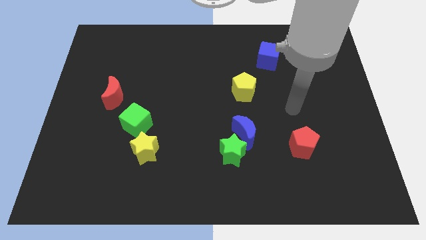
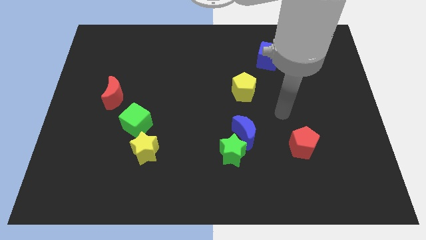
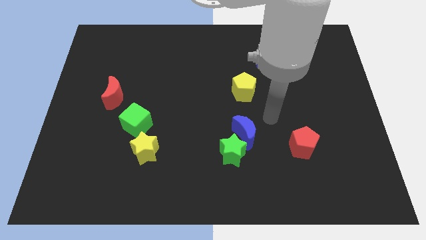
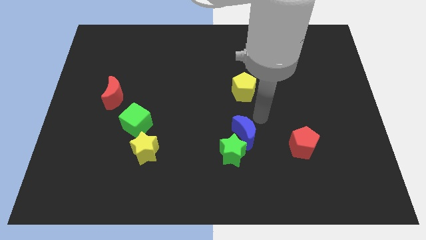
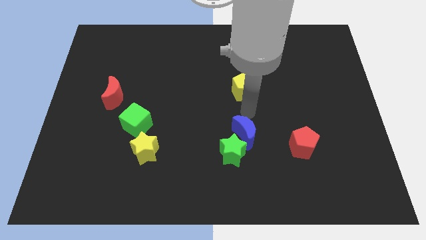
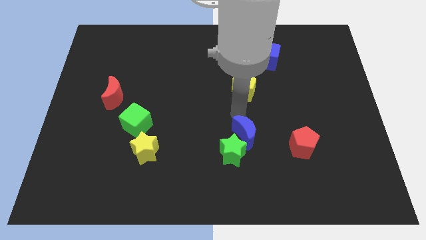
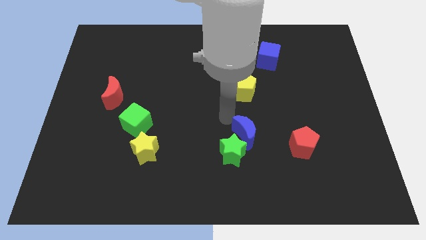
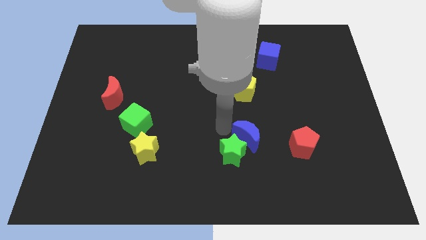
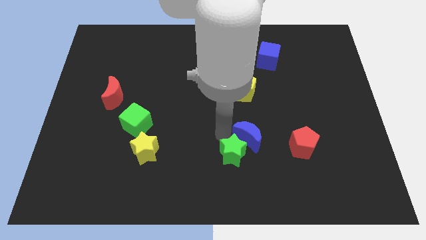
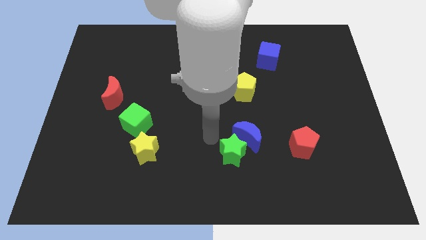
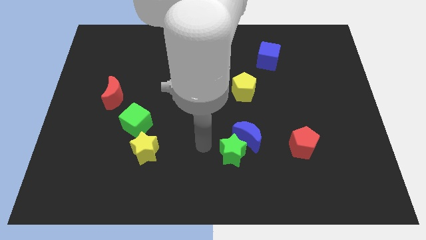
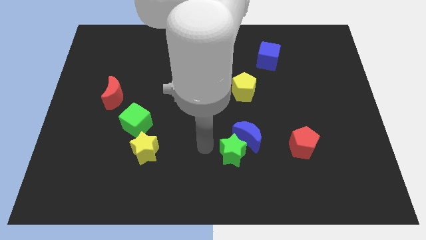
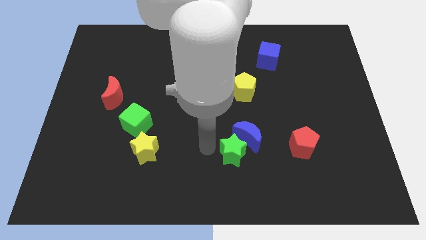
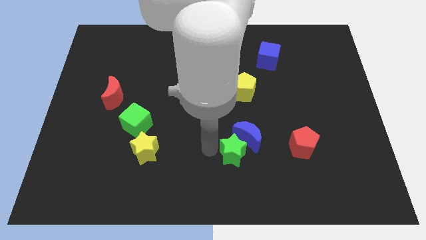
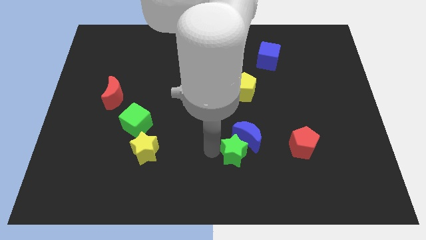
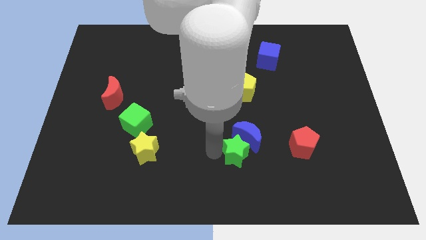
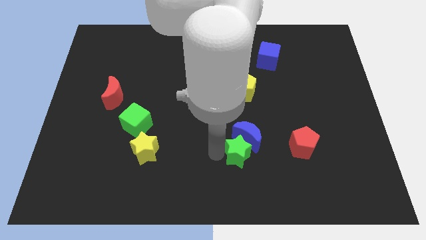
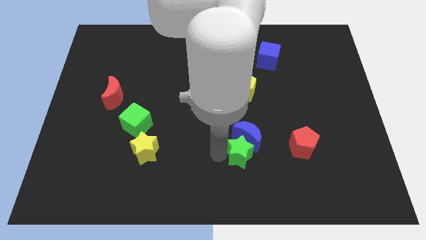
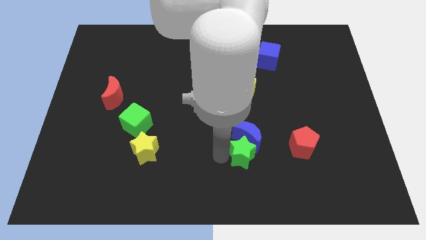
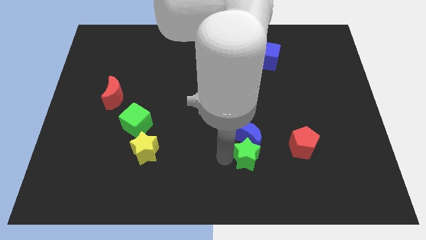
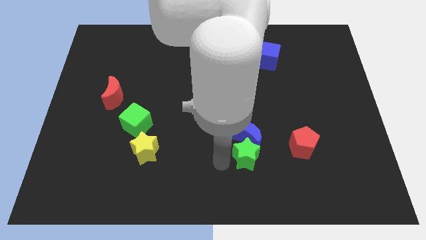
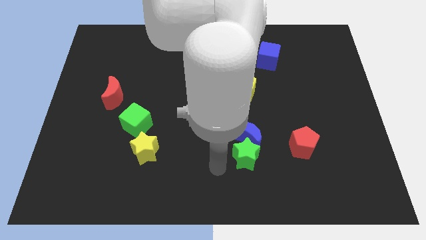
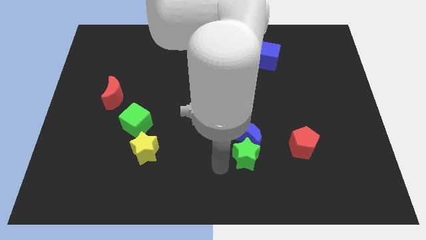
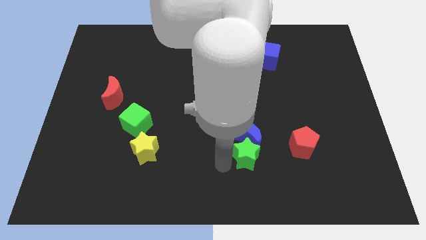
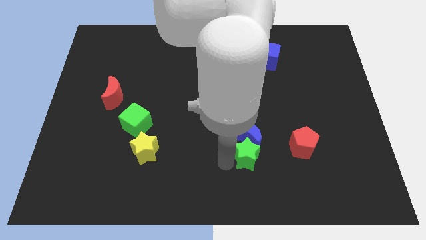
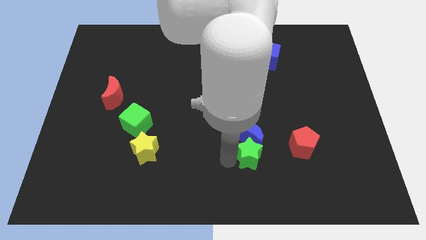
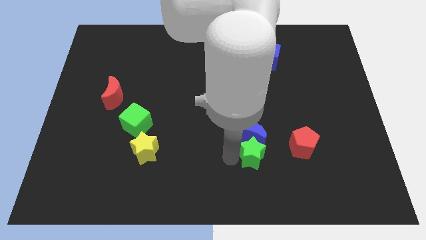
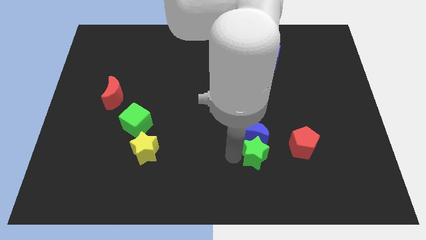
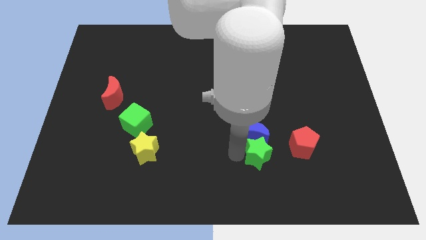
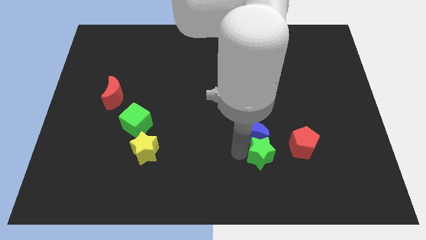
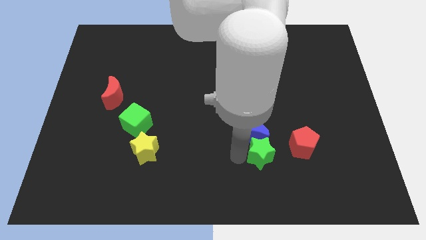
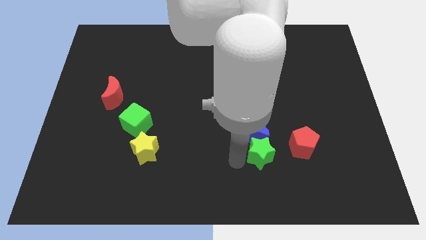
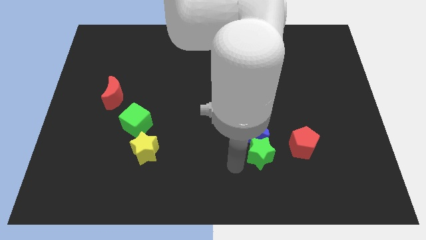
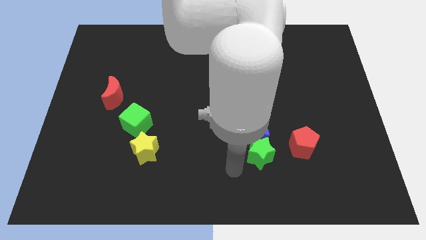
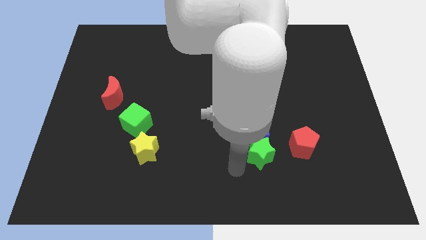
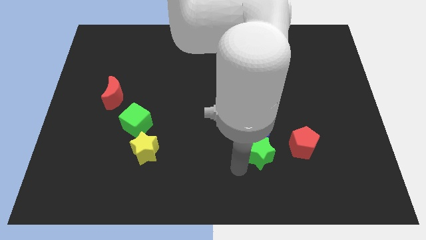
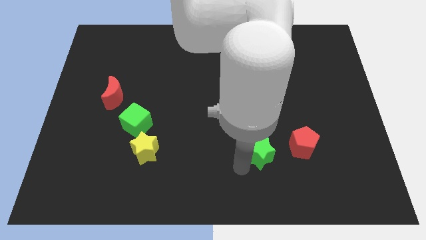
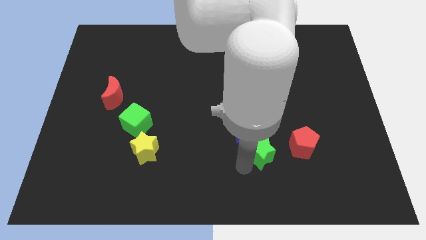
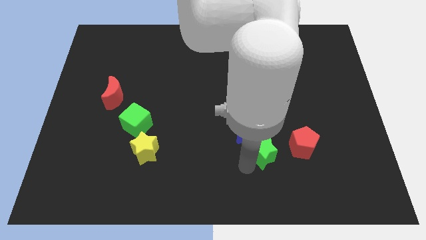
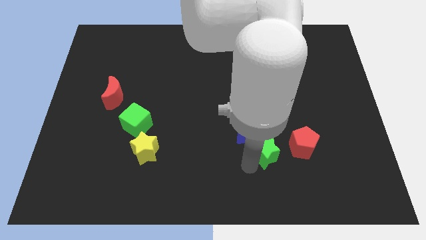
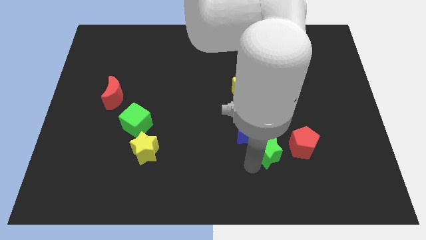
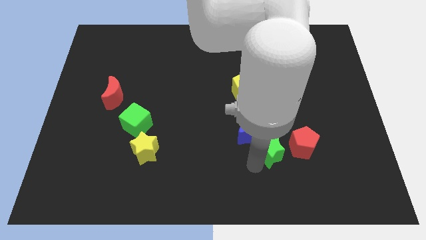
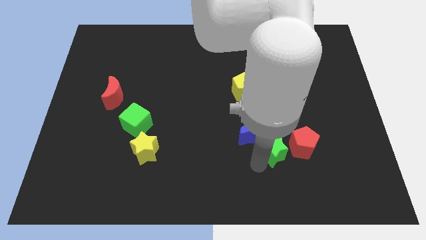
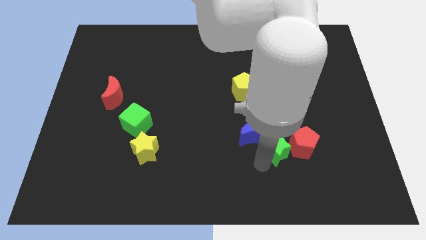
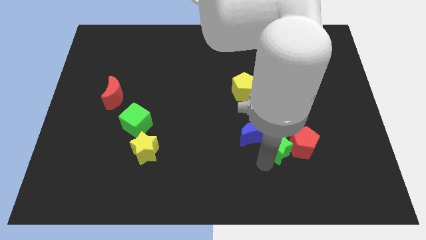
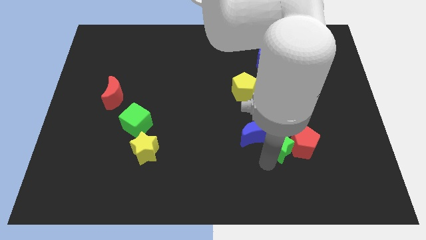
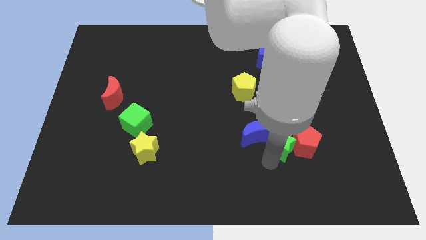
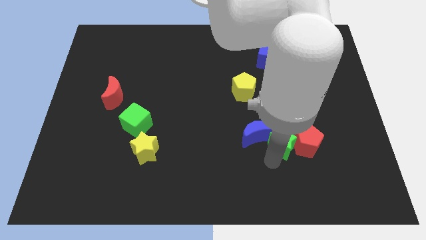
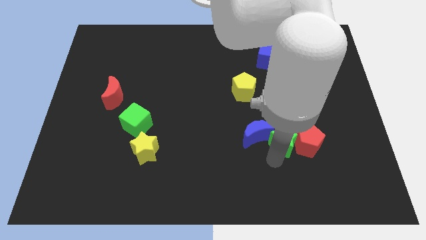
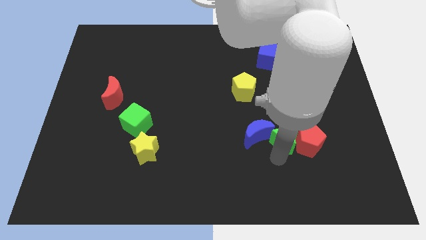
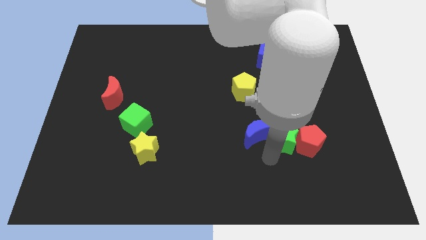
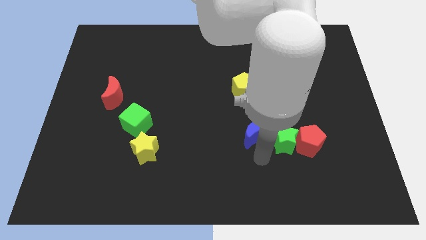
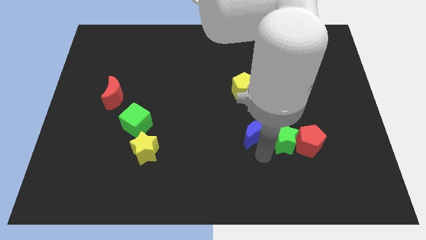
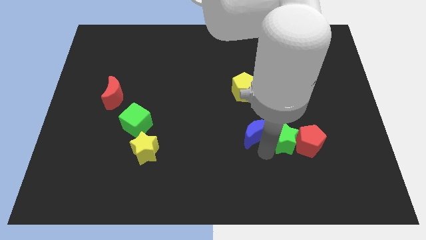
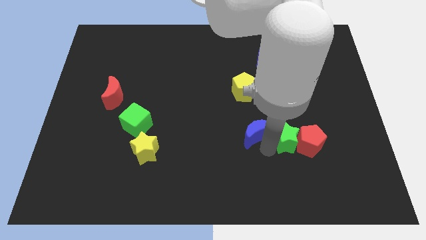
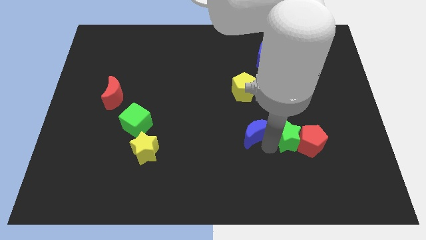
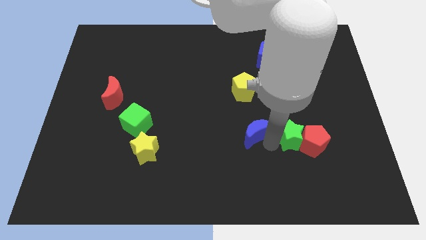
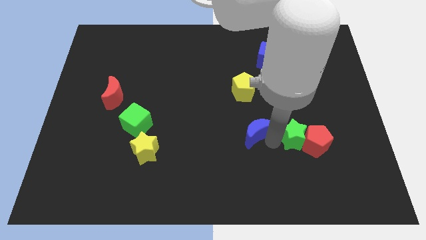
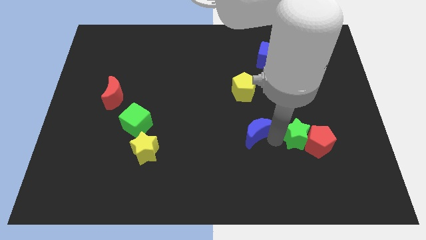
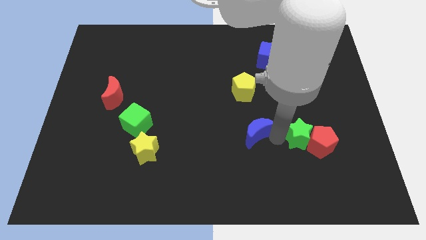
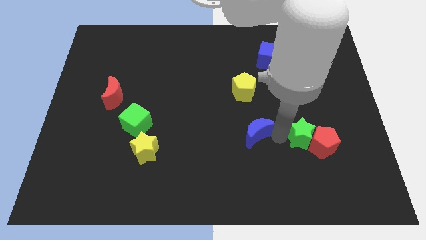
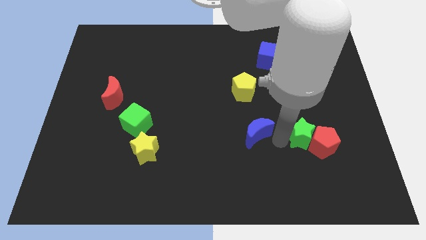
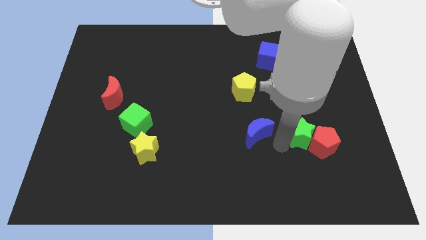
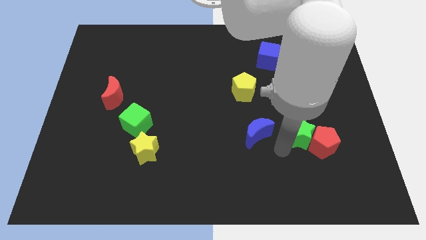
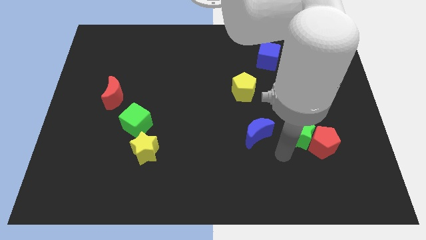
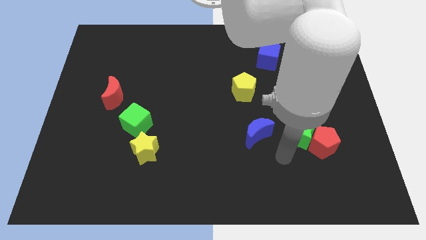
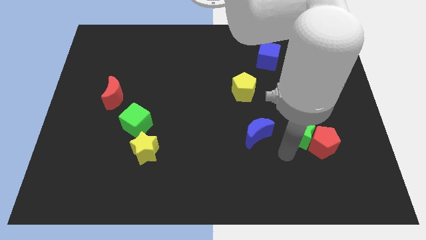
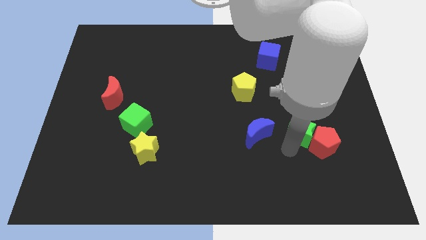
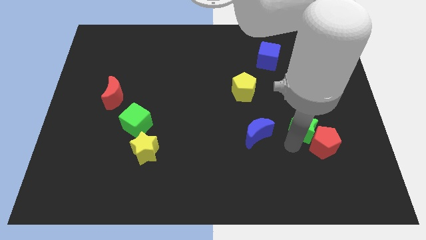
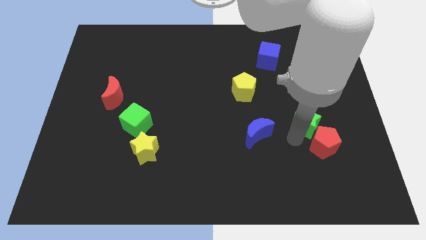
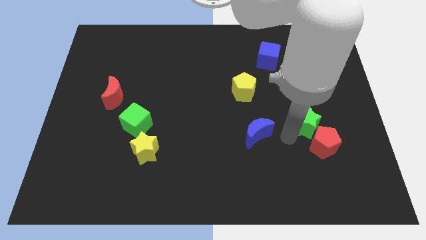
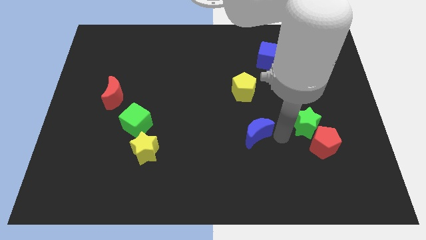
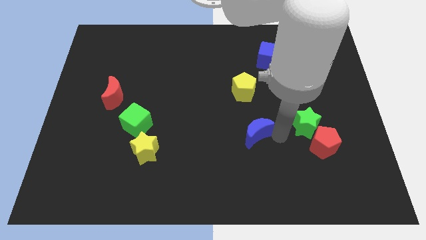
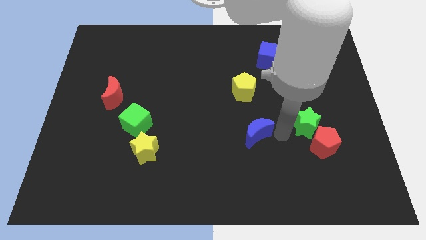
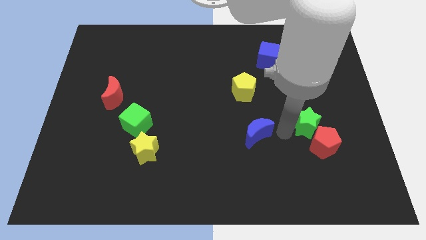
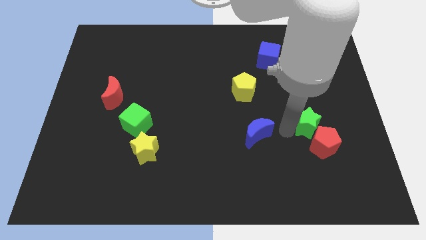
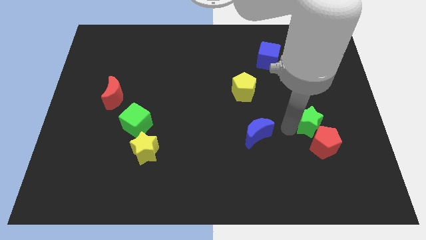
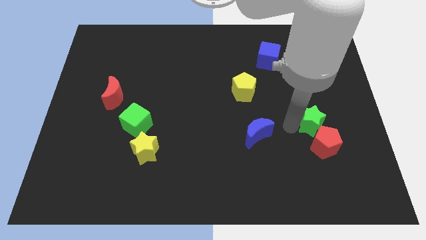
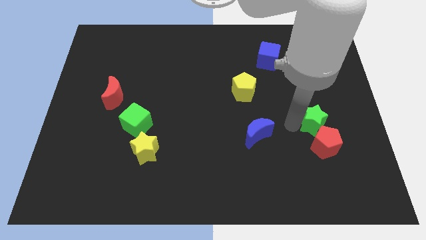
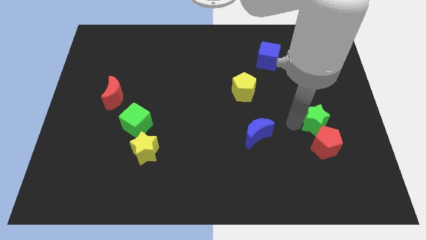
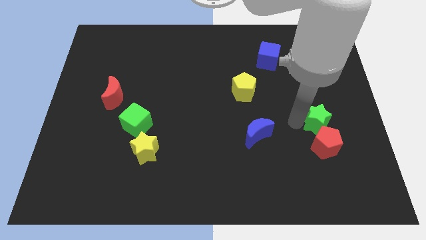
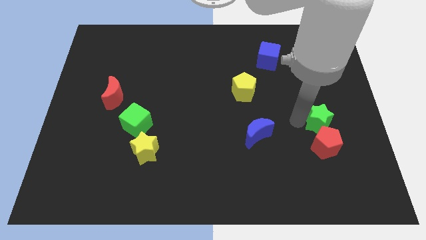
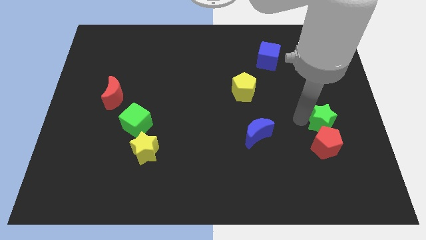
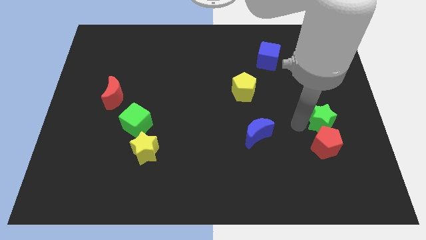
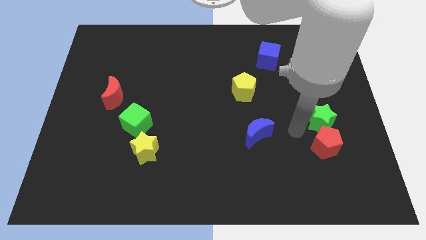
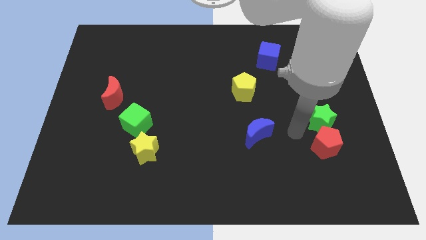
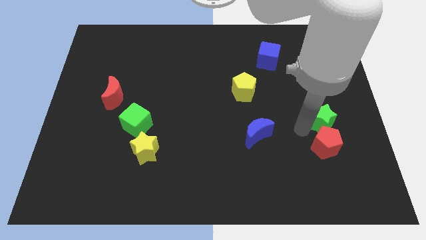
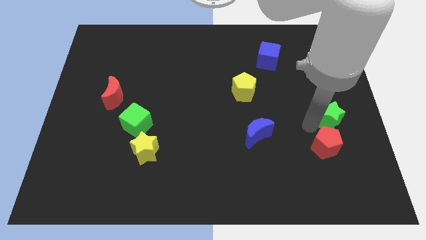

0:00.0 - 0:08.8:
slide the green star to the right side of the board
